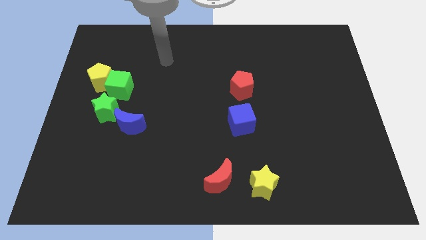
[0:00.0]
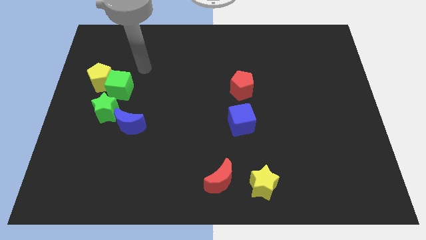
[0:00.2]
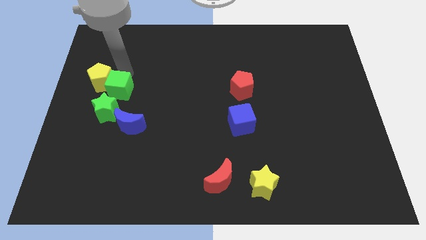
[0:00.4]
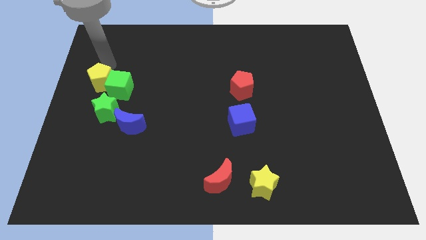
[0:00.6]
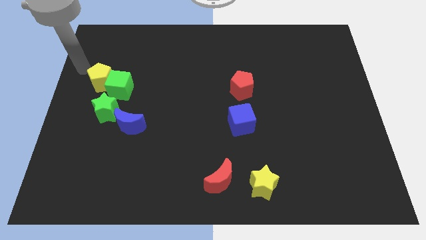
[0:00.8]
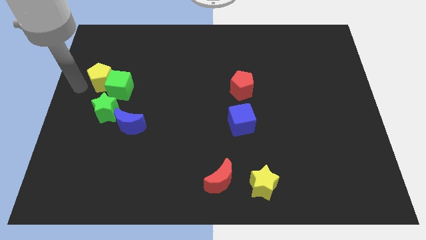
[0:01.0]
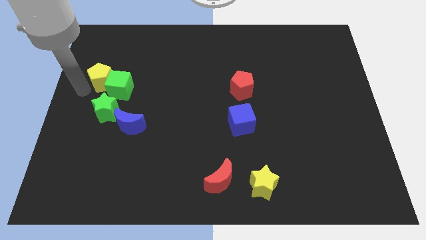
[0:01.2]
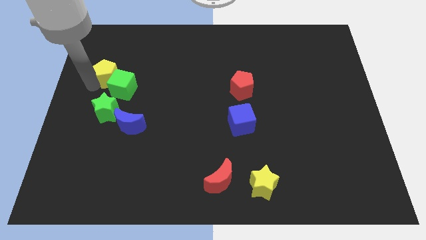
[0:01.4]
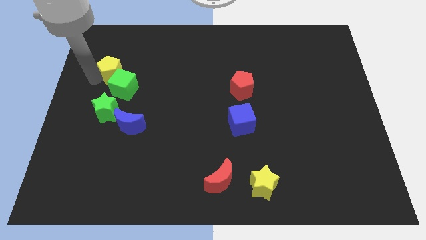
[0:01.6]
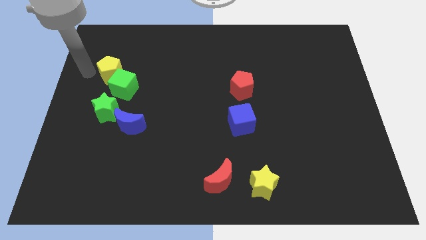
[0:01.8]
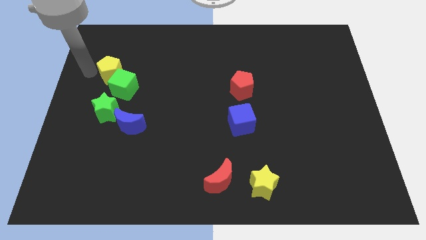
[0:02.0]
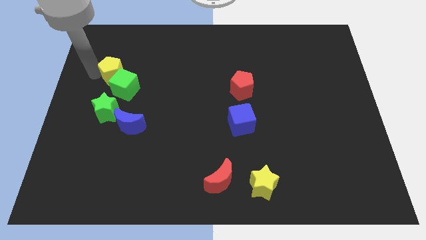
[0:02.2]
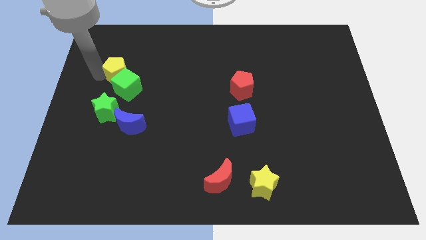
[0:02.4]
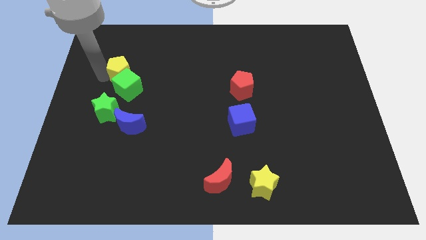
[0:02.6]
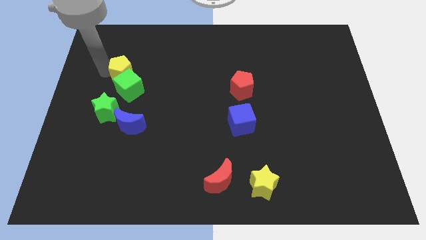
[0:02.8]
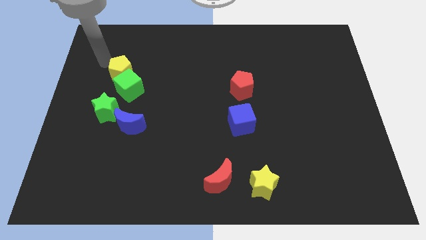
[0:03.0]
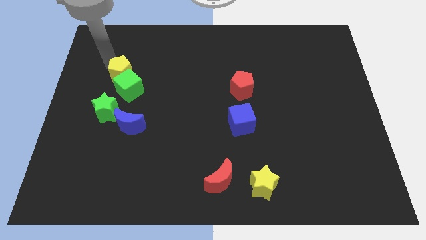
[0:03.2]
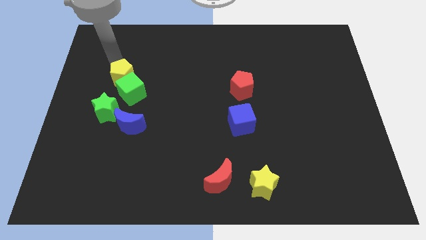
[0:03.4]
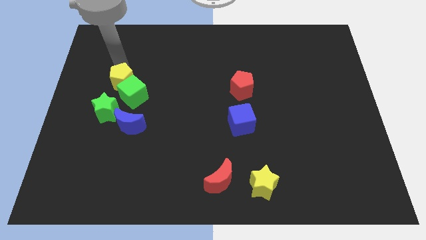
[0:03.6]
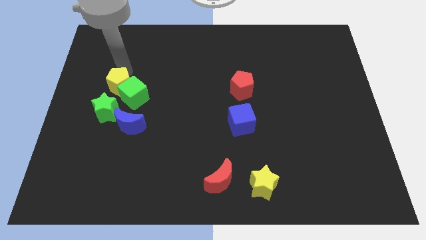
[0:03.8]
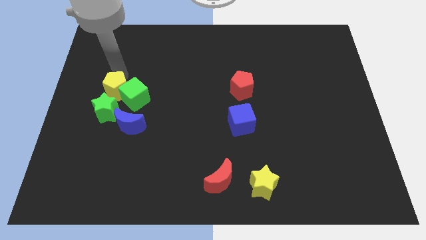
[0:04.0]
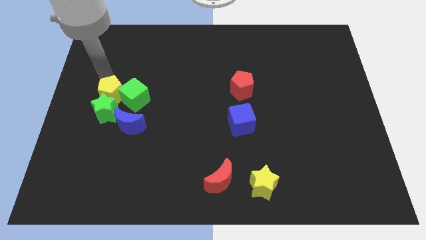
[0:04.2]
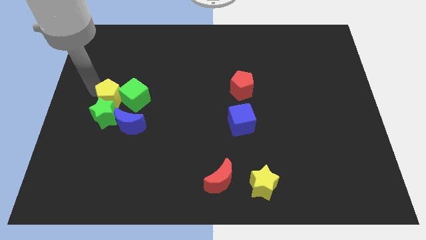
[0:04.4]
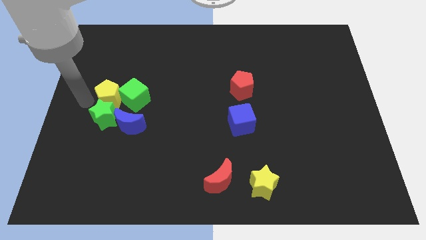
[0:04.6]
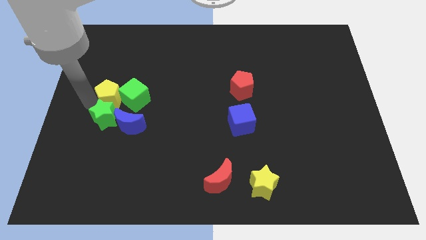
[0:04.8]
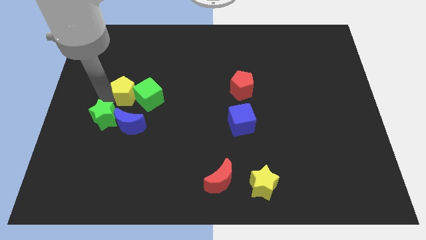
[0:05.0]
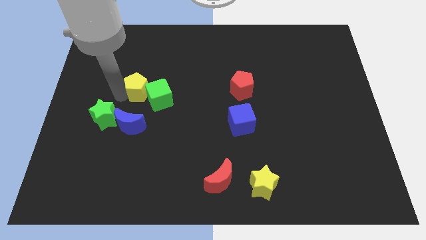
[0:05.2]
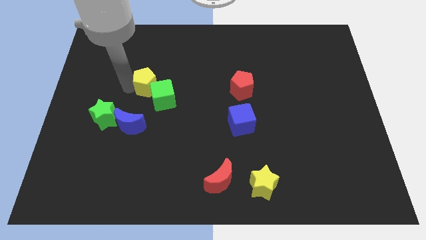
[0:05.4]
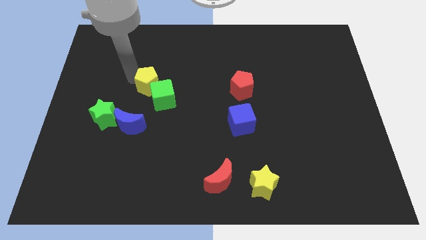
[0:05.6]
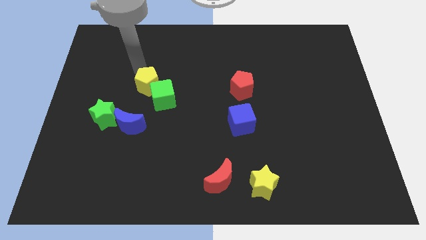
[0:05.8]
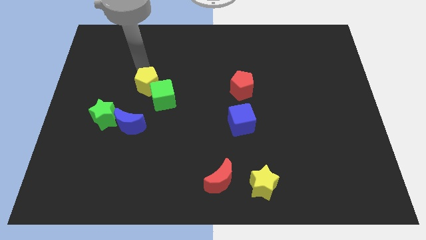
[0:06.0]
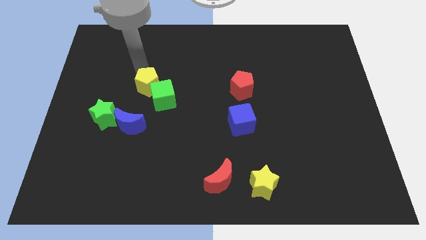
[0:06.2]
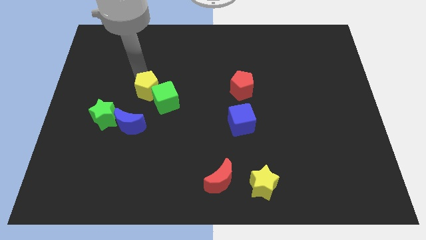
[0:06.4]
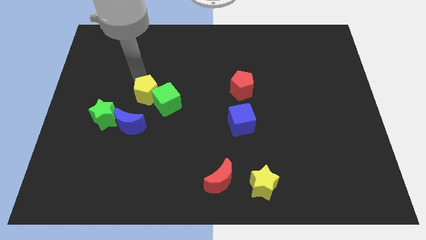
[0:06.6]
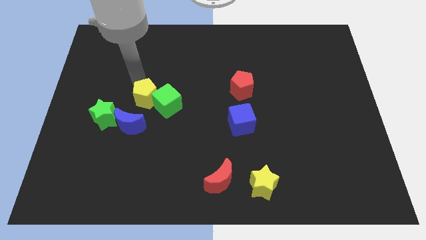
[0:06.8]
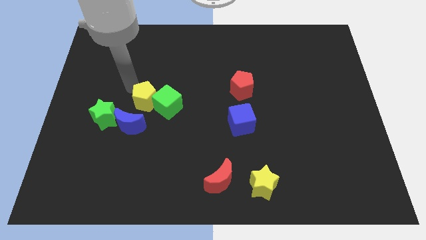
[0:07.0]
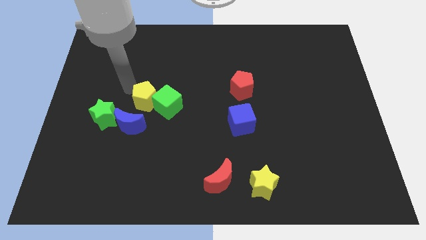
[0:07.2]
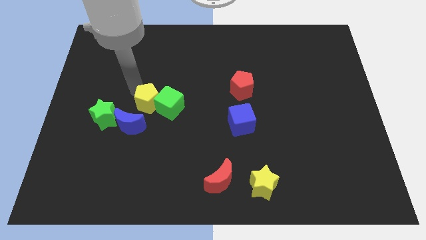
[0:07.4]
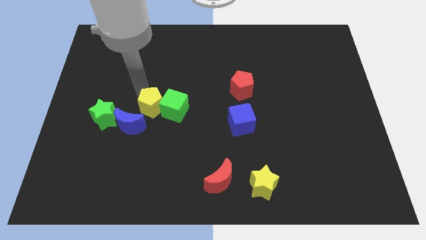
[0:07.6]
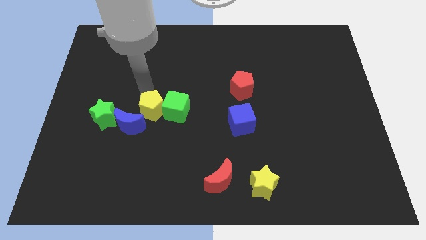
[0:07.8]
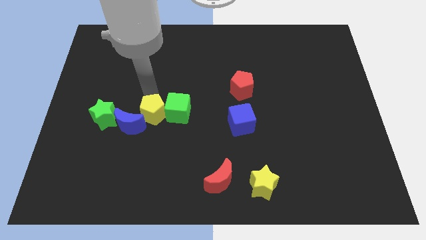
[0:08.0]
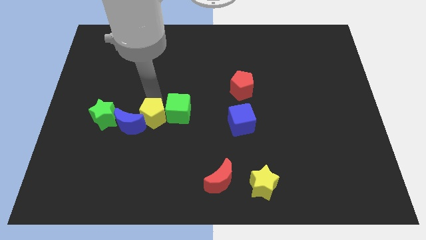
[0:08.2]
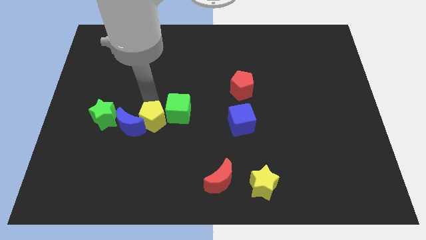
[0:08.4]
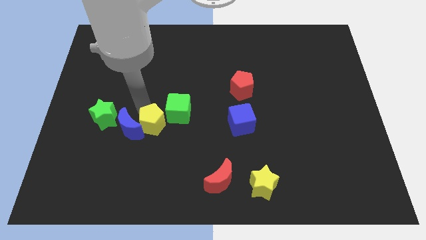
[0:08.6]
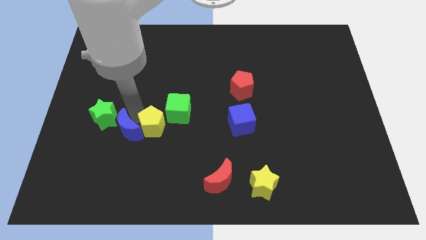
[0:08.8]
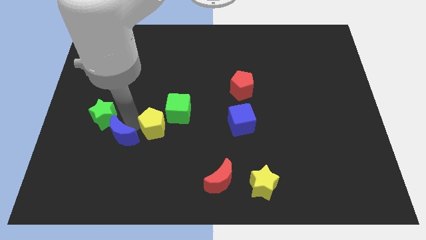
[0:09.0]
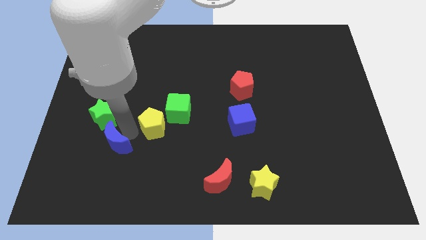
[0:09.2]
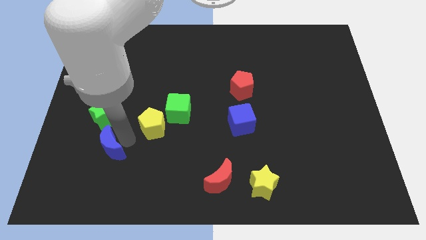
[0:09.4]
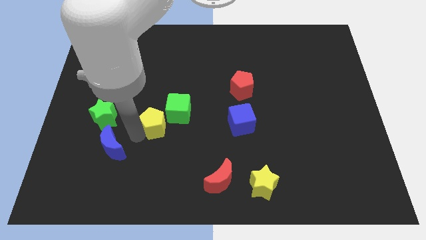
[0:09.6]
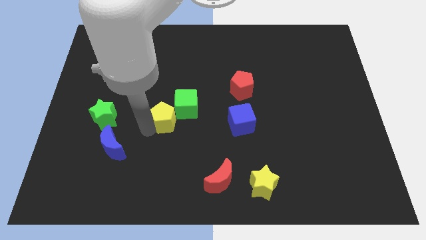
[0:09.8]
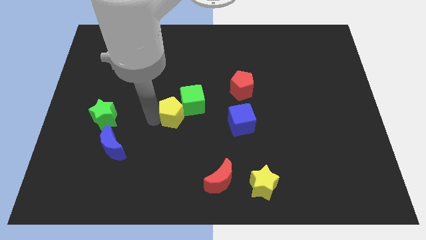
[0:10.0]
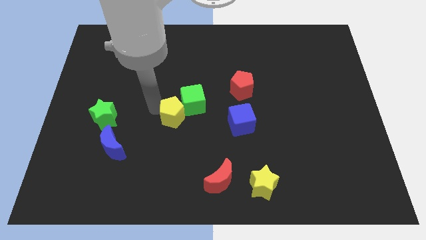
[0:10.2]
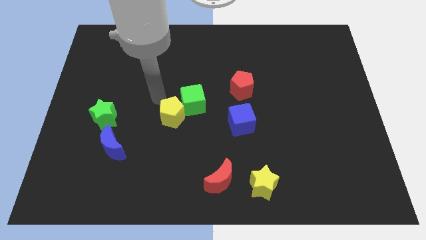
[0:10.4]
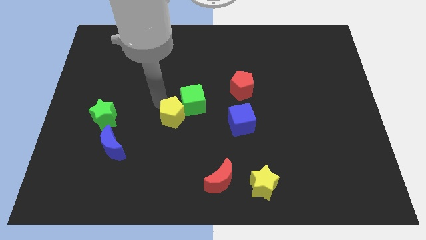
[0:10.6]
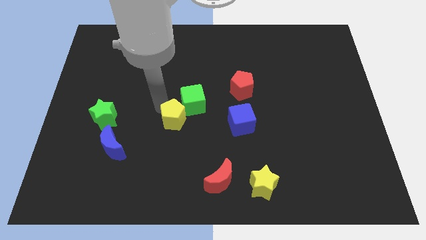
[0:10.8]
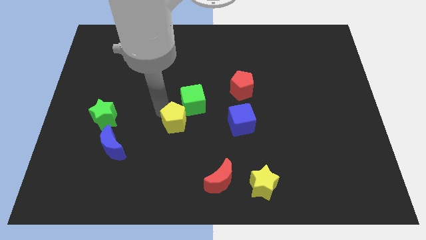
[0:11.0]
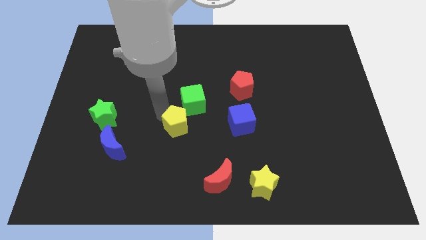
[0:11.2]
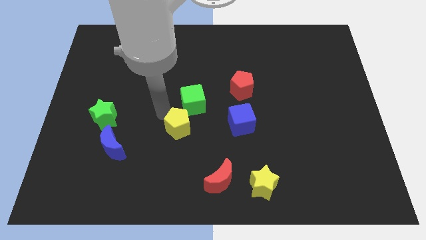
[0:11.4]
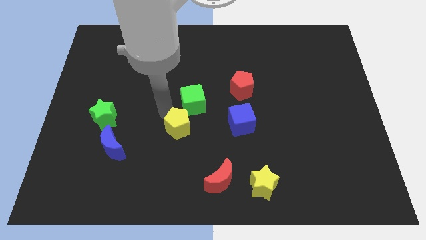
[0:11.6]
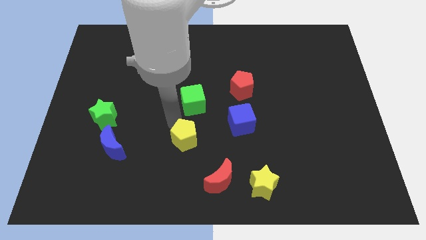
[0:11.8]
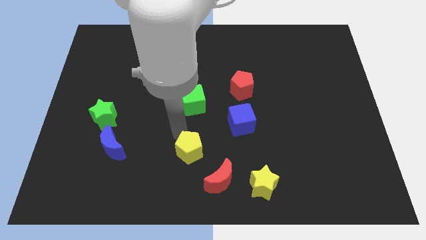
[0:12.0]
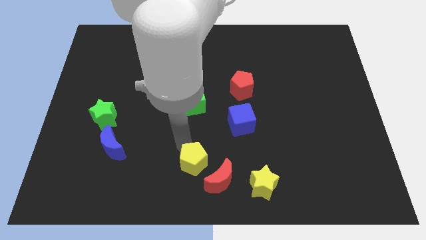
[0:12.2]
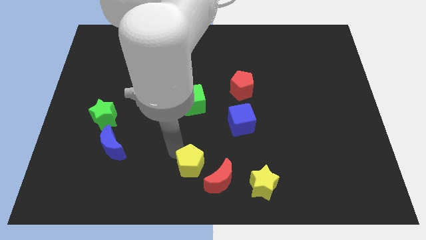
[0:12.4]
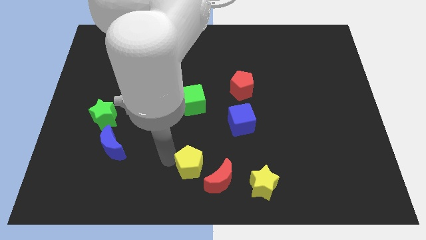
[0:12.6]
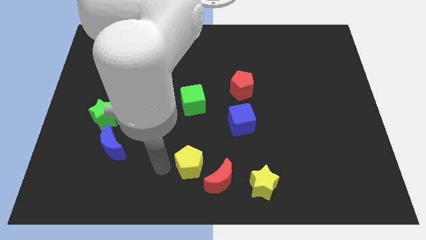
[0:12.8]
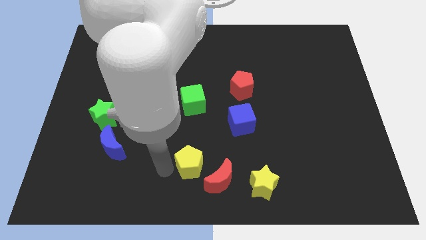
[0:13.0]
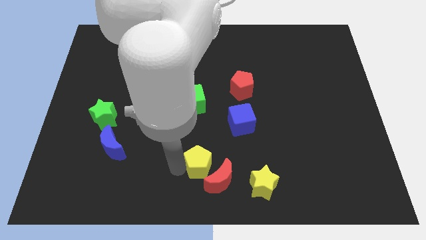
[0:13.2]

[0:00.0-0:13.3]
move the yellow pentagon towards the red moon

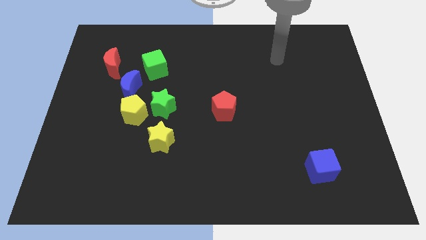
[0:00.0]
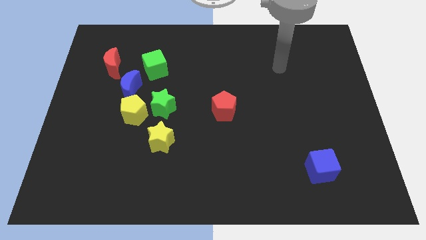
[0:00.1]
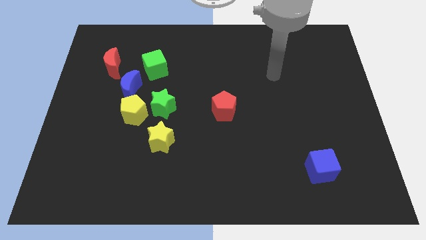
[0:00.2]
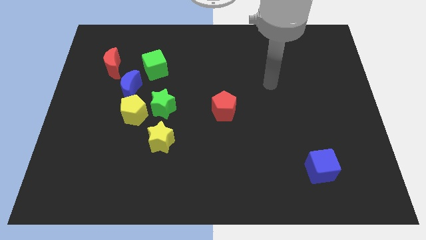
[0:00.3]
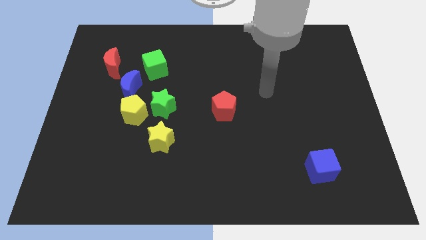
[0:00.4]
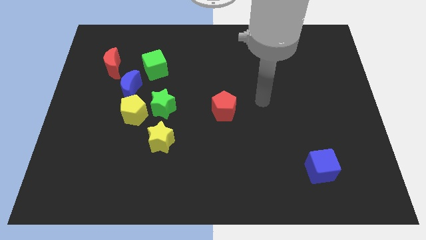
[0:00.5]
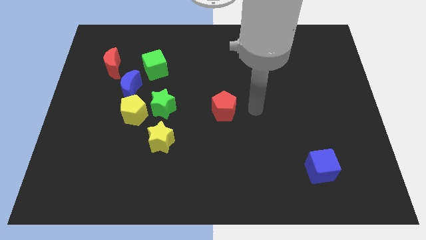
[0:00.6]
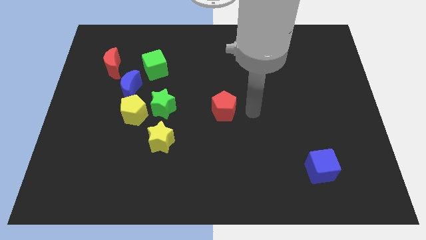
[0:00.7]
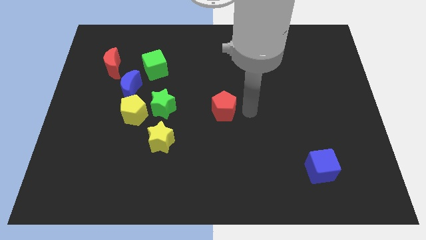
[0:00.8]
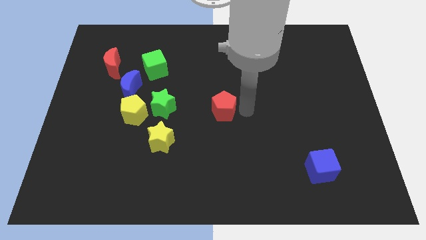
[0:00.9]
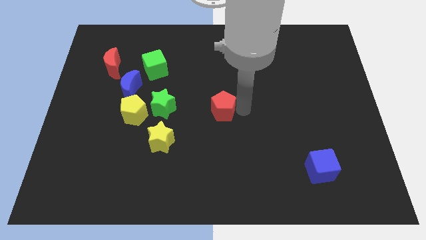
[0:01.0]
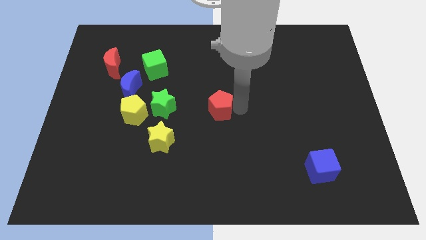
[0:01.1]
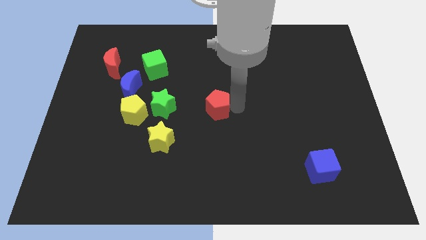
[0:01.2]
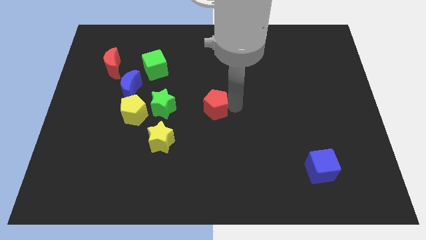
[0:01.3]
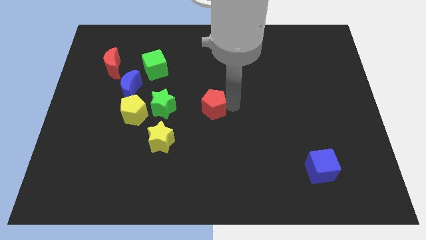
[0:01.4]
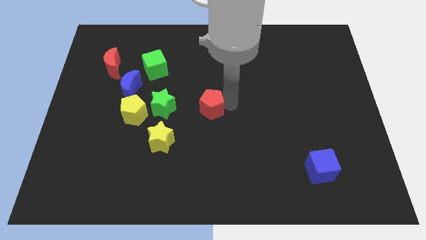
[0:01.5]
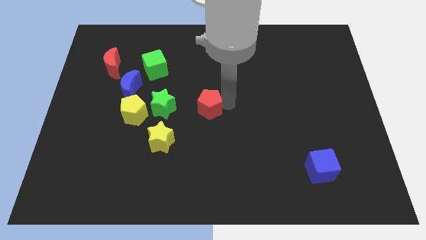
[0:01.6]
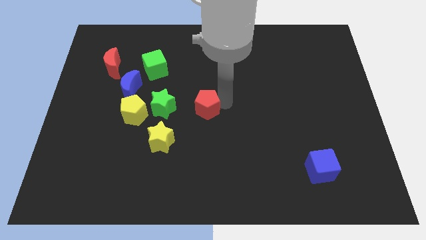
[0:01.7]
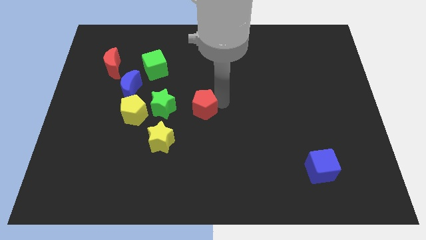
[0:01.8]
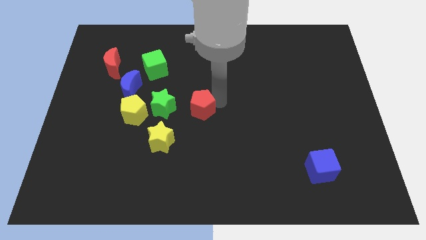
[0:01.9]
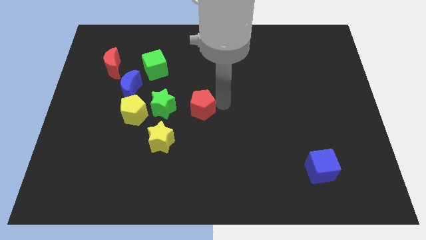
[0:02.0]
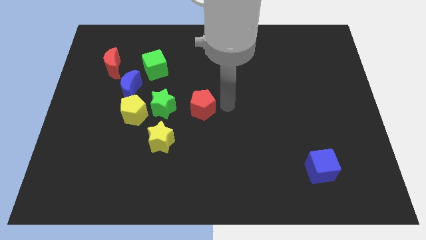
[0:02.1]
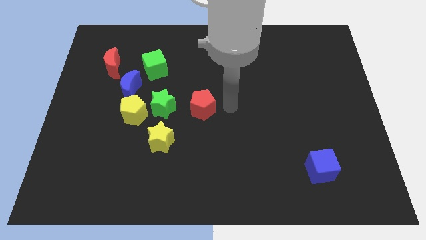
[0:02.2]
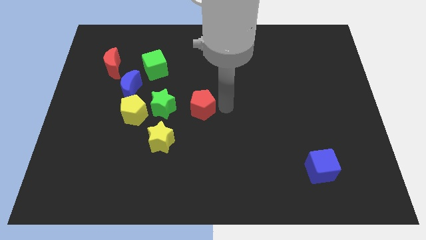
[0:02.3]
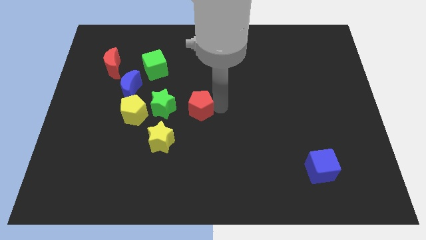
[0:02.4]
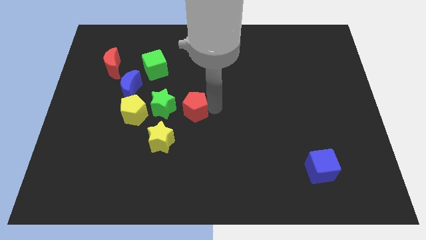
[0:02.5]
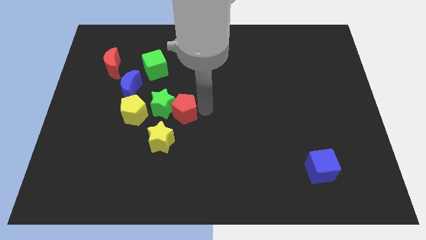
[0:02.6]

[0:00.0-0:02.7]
put the red pentagon next to the green star
